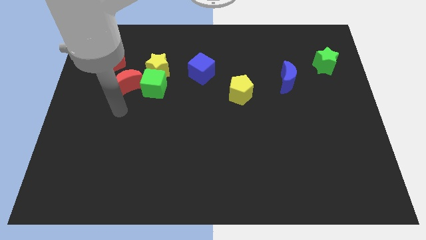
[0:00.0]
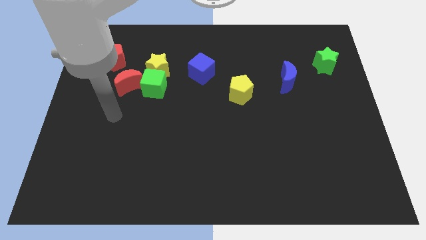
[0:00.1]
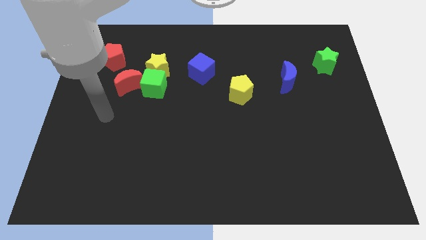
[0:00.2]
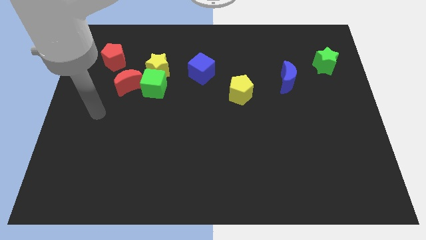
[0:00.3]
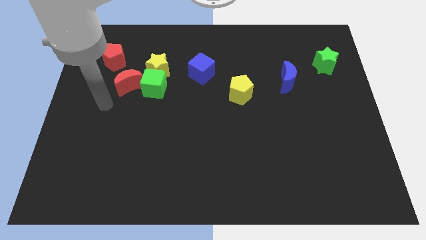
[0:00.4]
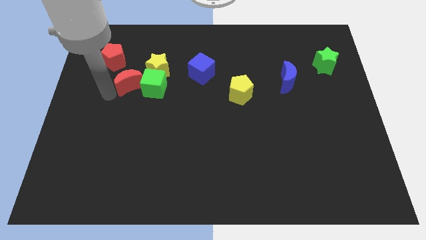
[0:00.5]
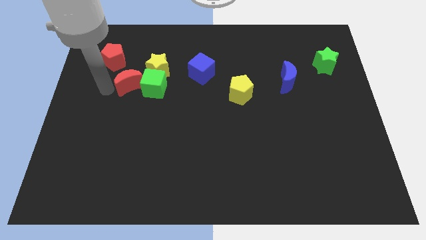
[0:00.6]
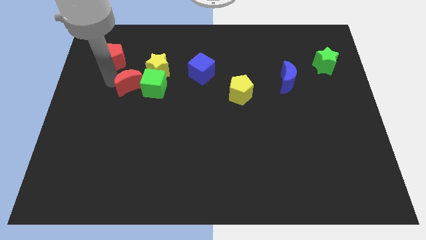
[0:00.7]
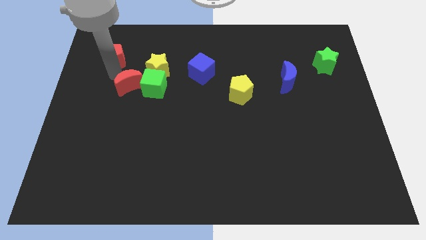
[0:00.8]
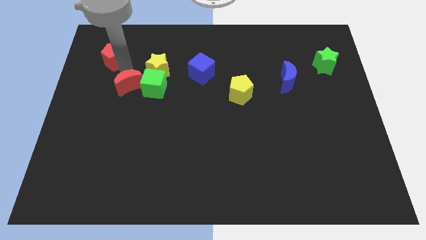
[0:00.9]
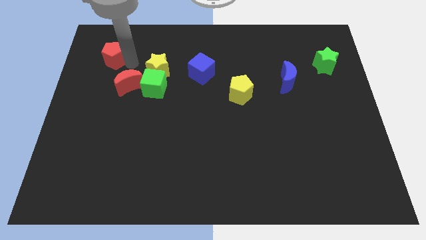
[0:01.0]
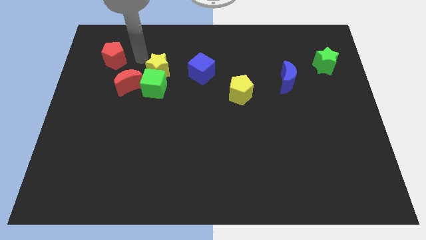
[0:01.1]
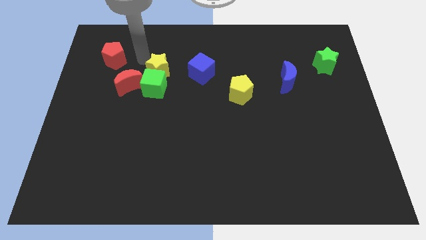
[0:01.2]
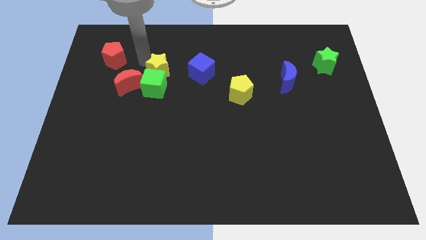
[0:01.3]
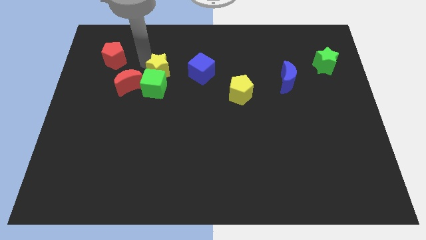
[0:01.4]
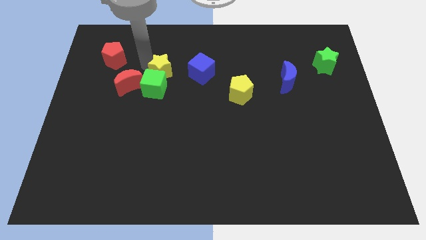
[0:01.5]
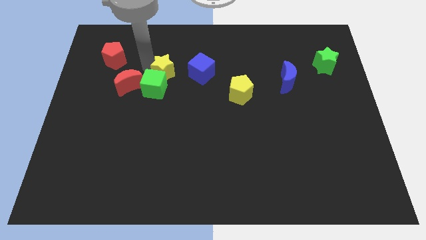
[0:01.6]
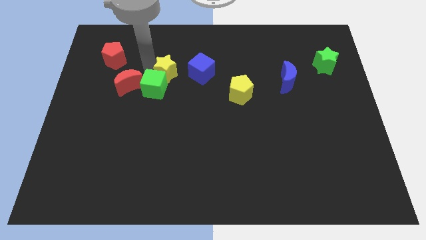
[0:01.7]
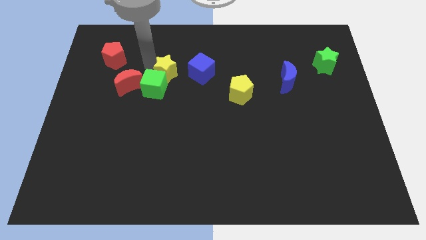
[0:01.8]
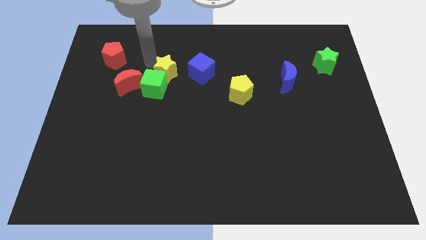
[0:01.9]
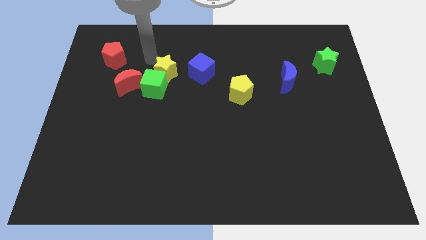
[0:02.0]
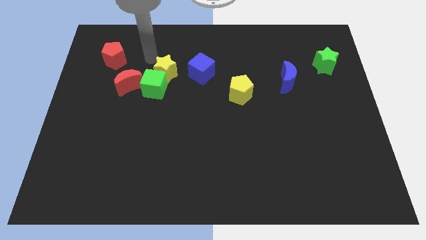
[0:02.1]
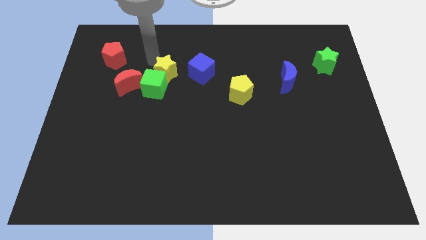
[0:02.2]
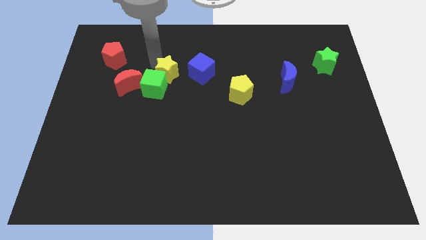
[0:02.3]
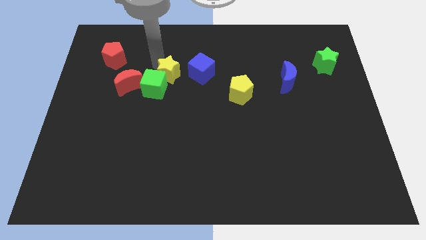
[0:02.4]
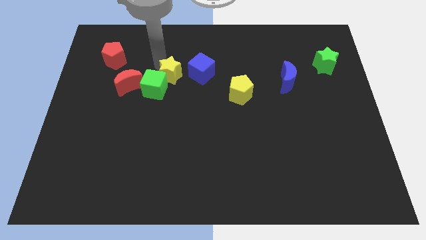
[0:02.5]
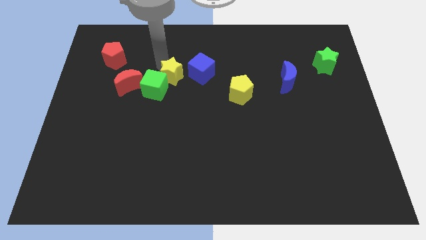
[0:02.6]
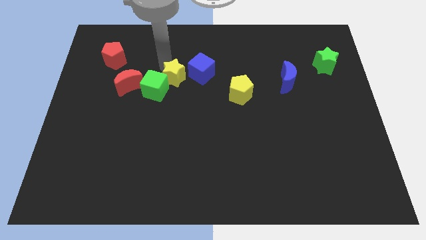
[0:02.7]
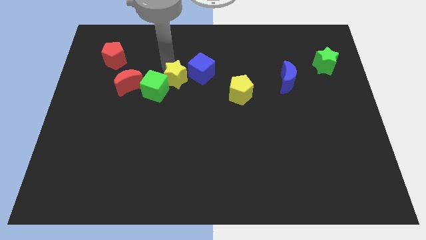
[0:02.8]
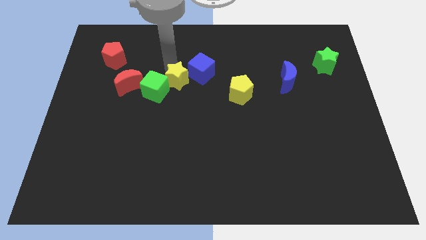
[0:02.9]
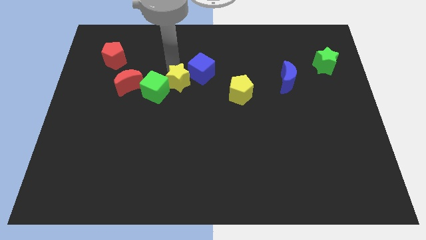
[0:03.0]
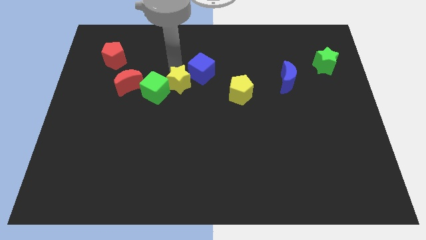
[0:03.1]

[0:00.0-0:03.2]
slide the yellow star diagonally down and to the right a bit

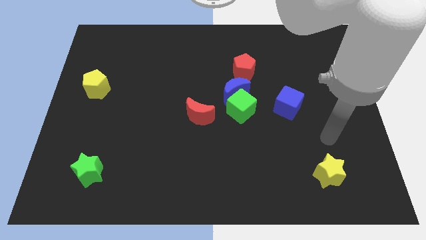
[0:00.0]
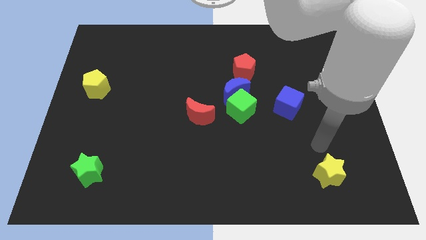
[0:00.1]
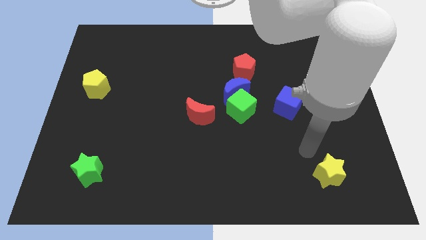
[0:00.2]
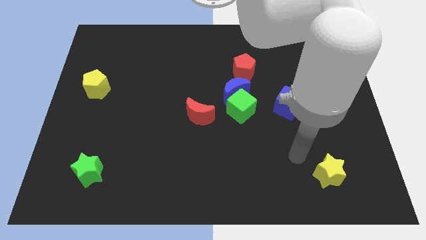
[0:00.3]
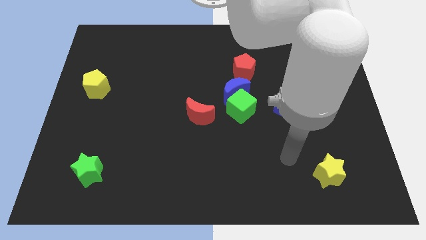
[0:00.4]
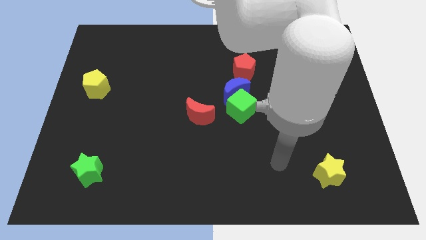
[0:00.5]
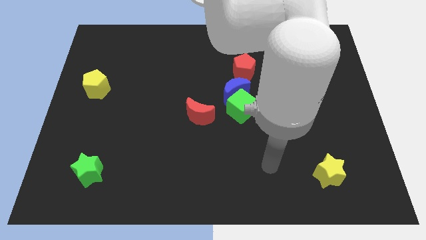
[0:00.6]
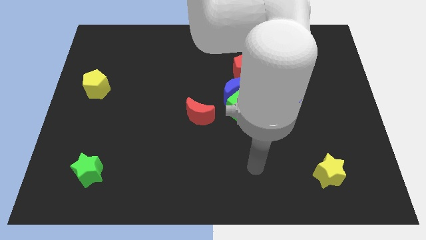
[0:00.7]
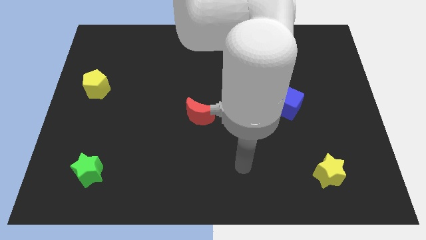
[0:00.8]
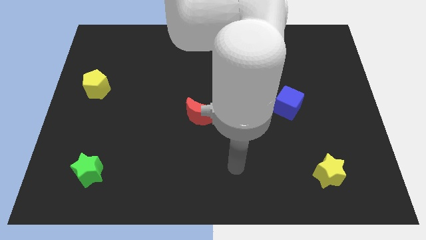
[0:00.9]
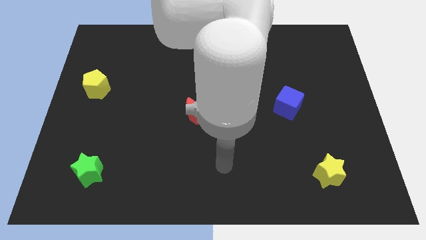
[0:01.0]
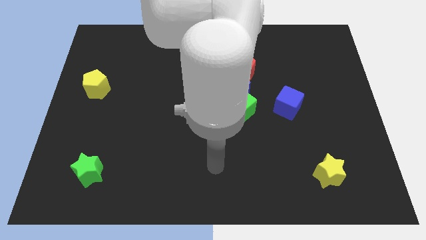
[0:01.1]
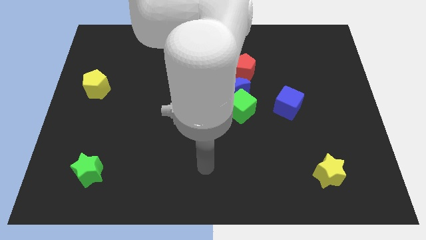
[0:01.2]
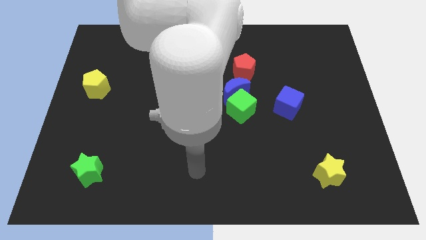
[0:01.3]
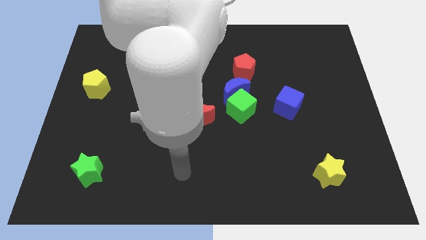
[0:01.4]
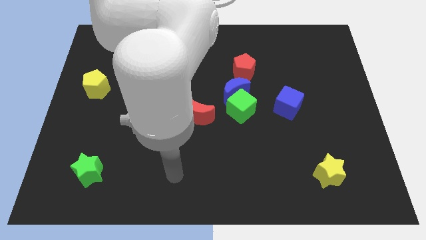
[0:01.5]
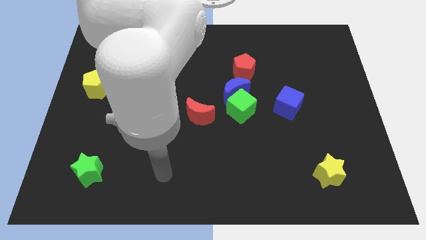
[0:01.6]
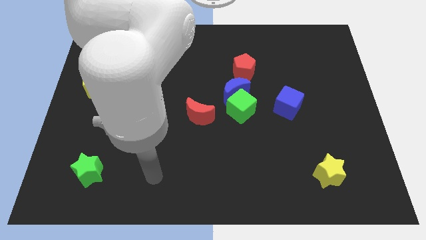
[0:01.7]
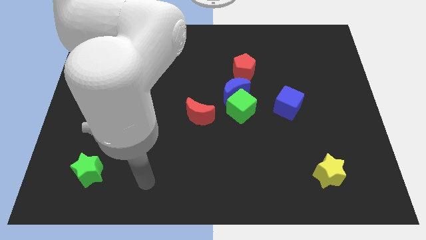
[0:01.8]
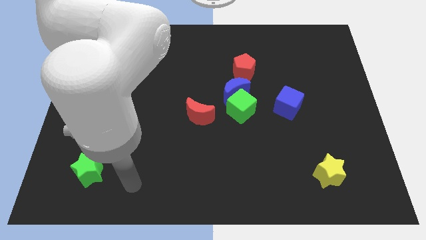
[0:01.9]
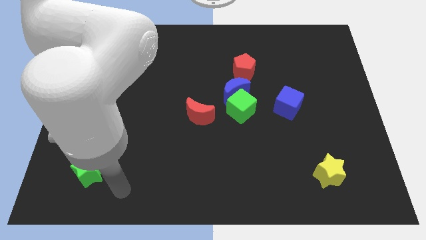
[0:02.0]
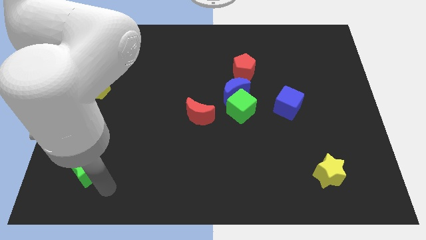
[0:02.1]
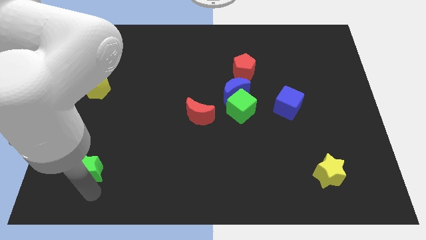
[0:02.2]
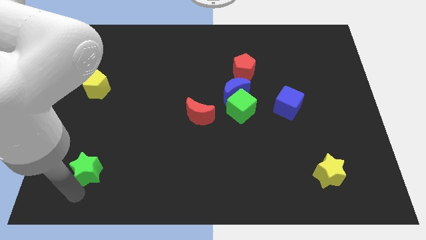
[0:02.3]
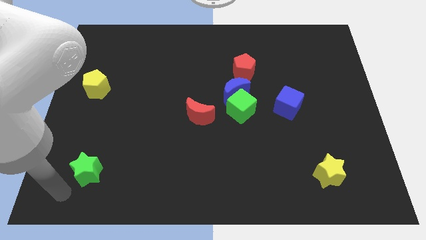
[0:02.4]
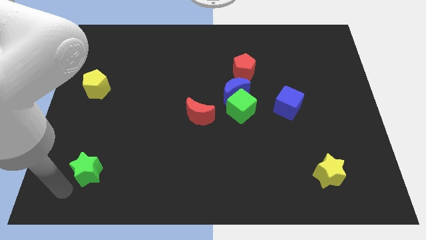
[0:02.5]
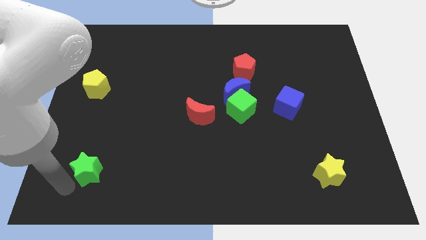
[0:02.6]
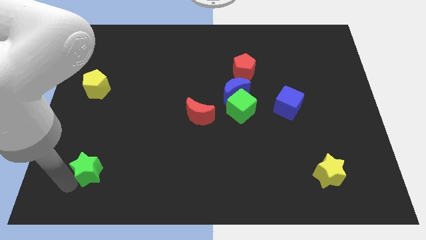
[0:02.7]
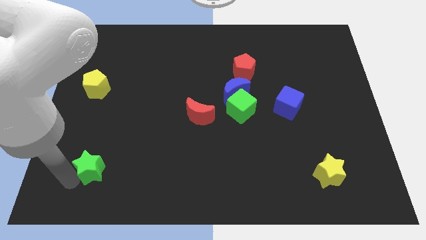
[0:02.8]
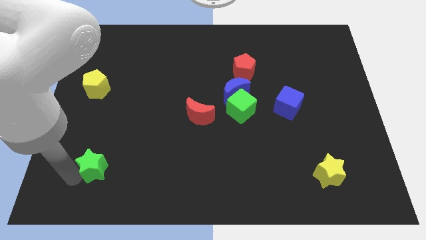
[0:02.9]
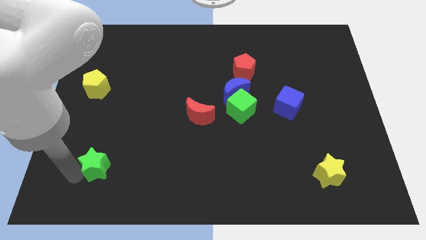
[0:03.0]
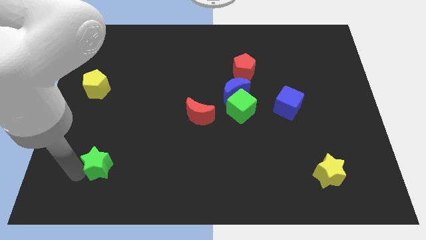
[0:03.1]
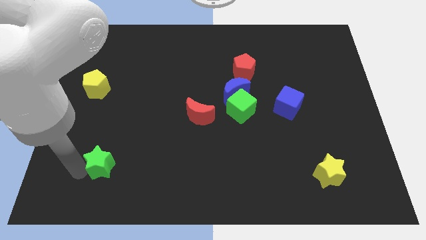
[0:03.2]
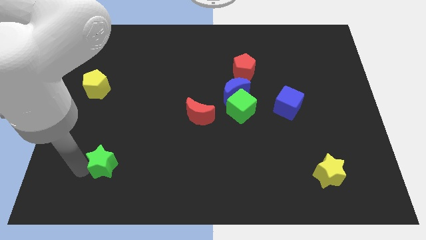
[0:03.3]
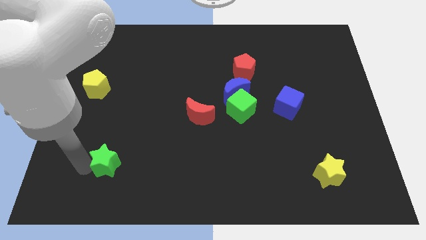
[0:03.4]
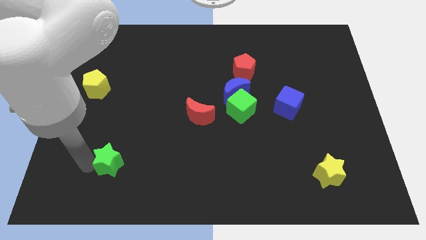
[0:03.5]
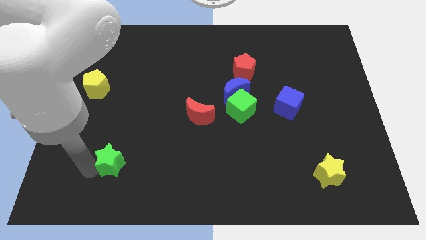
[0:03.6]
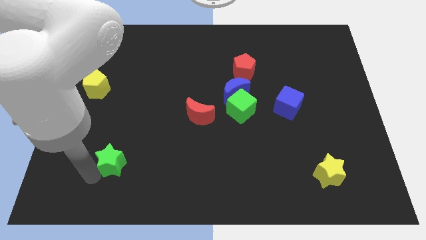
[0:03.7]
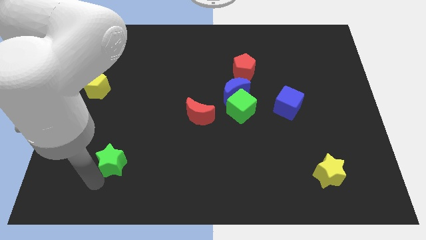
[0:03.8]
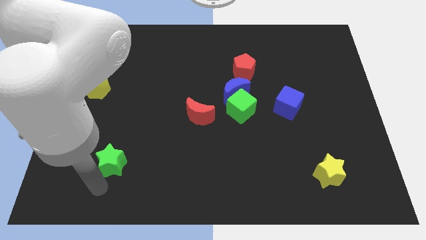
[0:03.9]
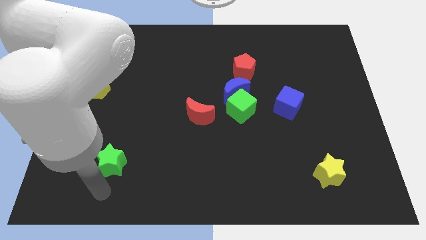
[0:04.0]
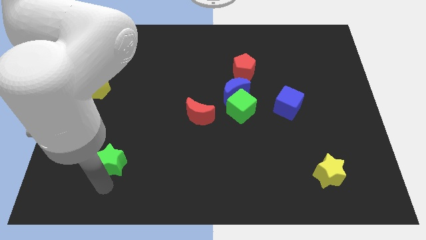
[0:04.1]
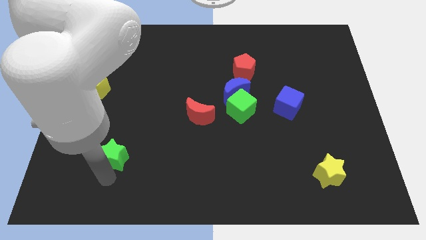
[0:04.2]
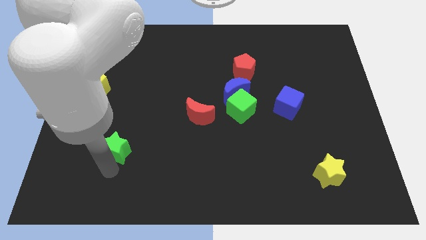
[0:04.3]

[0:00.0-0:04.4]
push the green star upwards and right diagonally a little

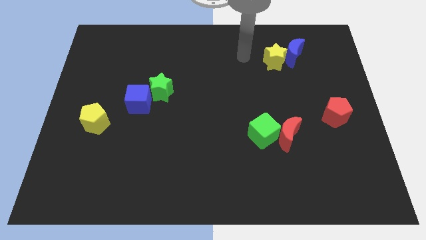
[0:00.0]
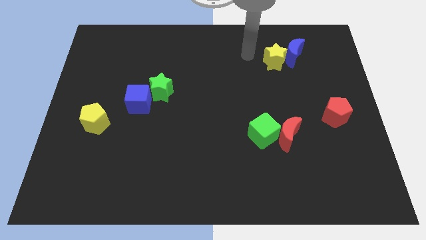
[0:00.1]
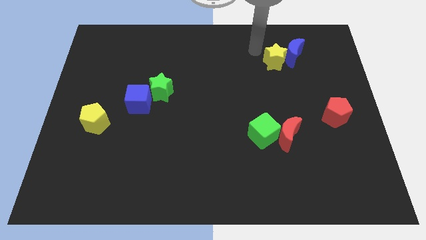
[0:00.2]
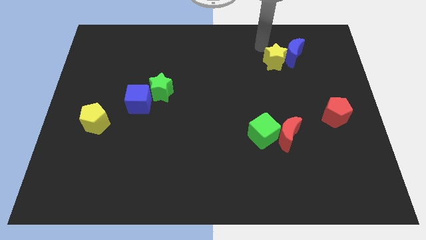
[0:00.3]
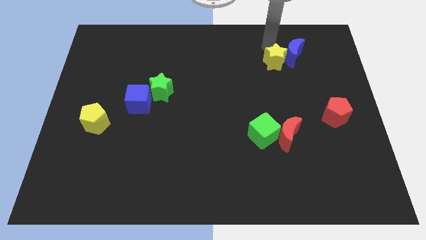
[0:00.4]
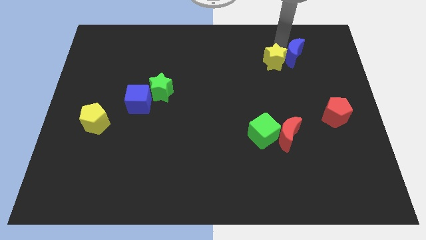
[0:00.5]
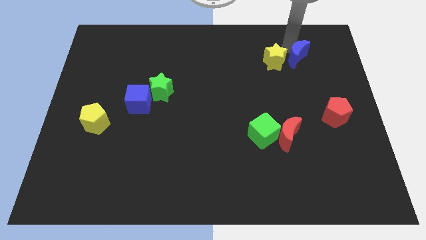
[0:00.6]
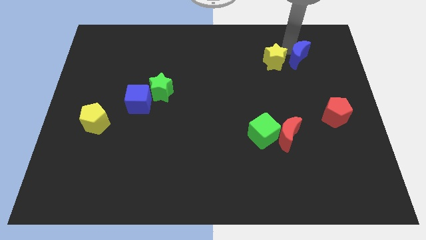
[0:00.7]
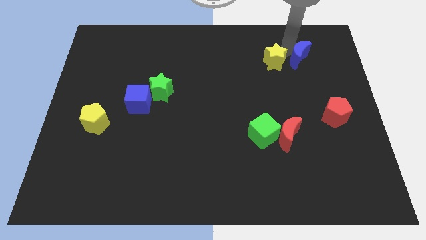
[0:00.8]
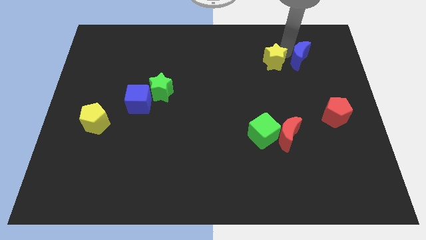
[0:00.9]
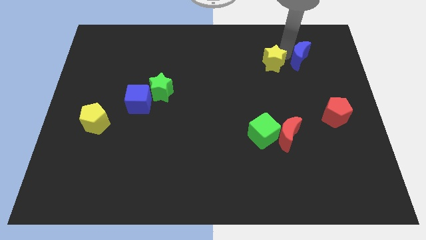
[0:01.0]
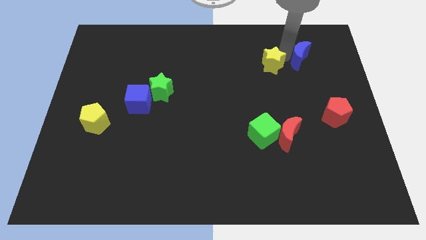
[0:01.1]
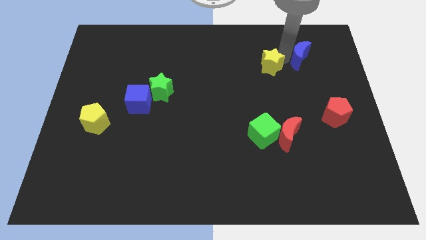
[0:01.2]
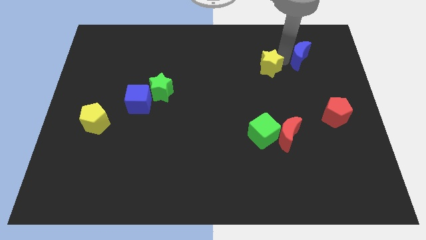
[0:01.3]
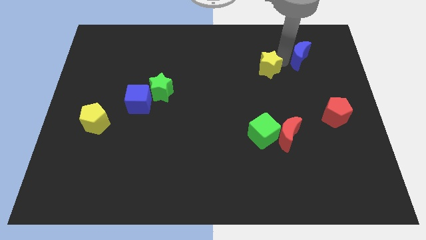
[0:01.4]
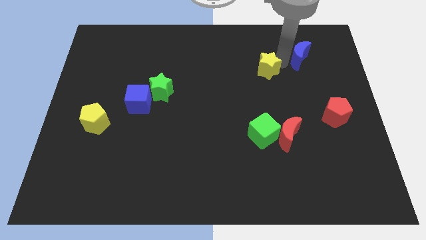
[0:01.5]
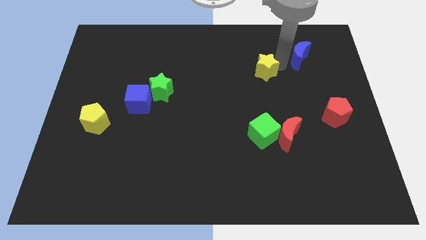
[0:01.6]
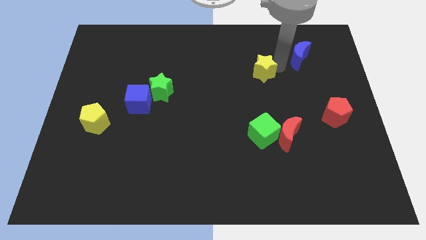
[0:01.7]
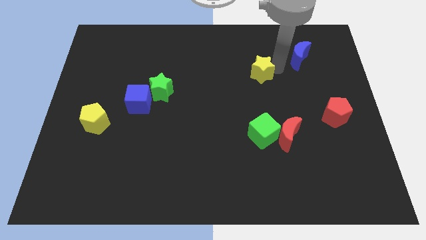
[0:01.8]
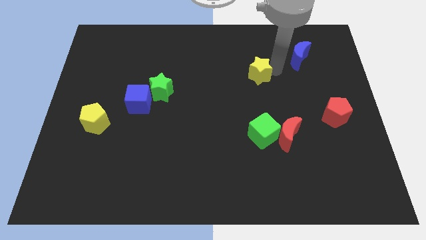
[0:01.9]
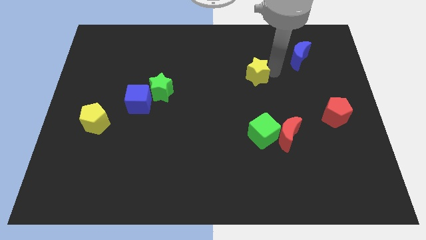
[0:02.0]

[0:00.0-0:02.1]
move the yellow star down and left diagonally a bit
